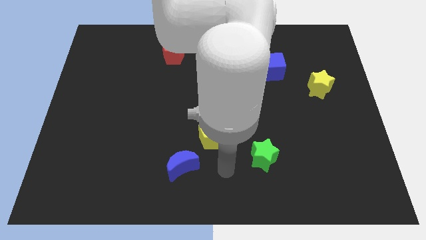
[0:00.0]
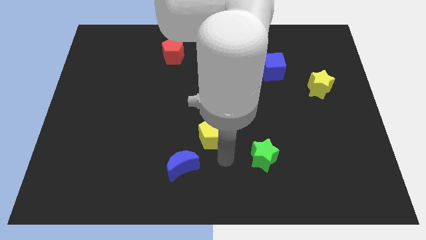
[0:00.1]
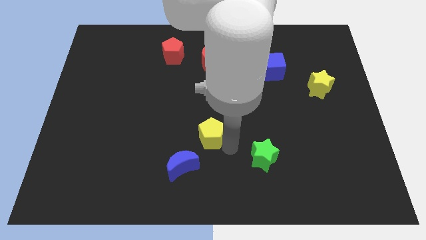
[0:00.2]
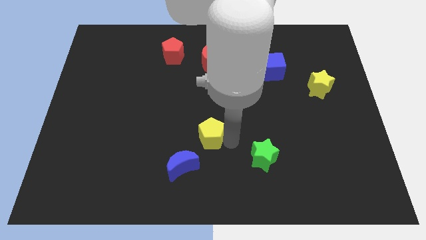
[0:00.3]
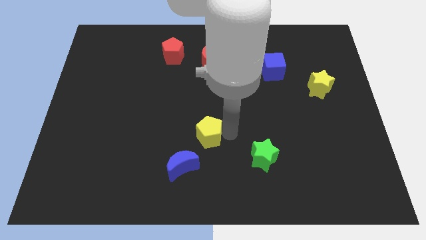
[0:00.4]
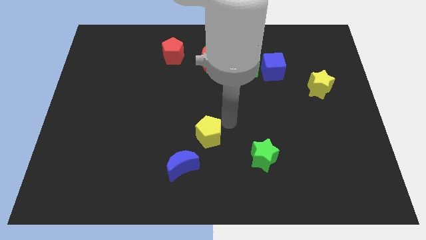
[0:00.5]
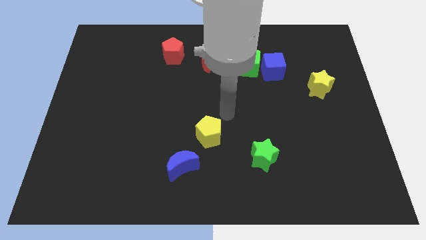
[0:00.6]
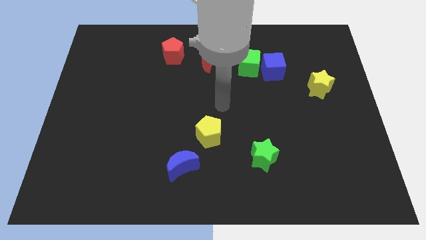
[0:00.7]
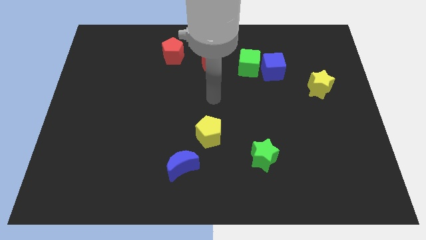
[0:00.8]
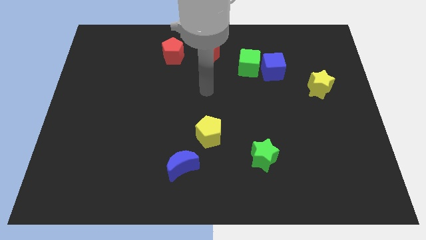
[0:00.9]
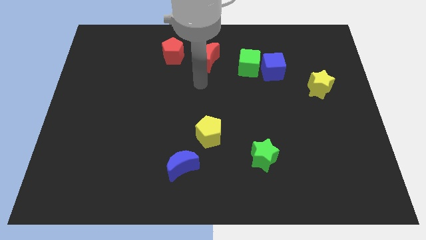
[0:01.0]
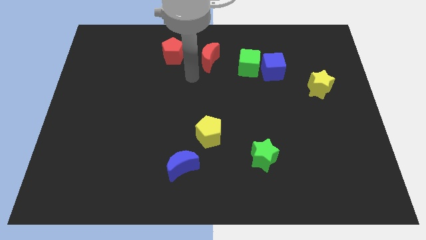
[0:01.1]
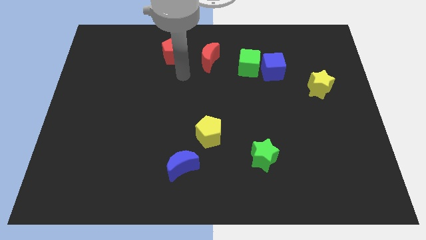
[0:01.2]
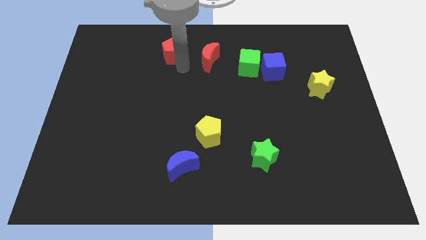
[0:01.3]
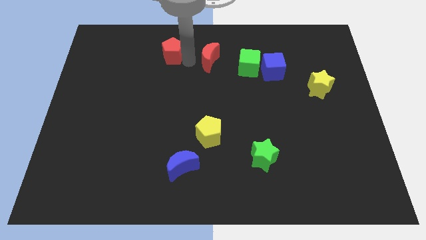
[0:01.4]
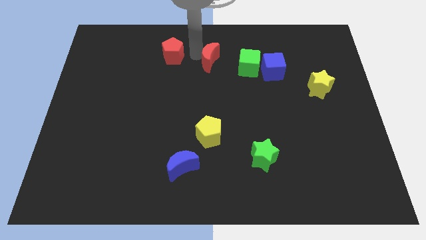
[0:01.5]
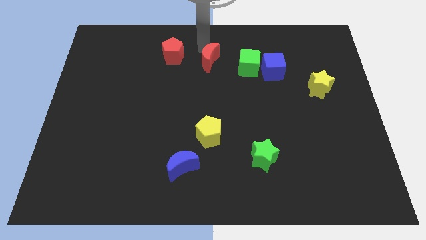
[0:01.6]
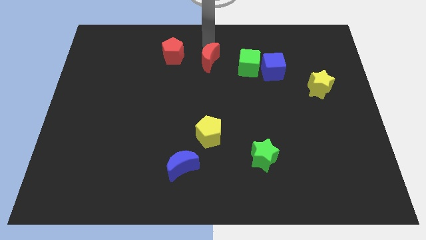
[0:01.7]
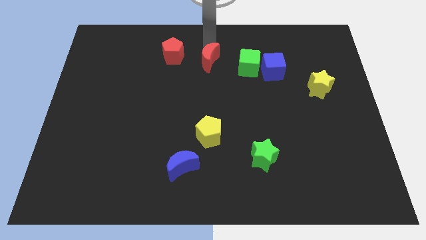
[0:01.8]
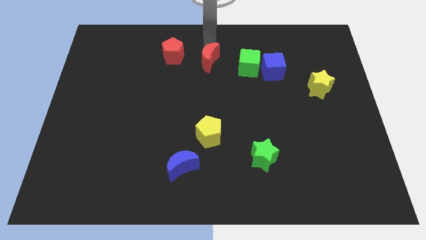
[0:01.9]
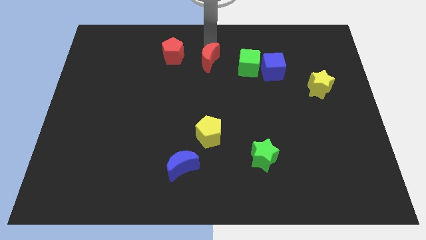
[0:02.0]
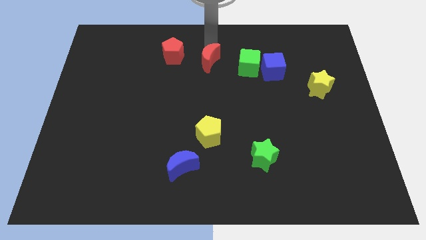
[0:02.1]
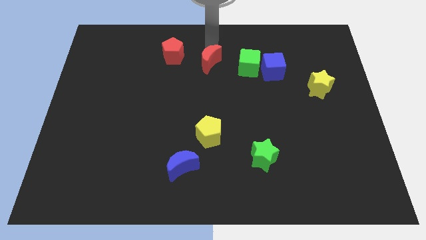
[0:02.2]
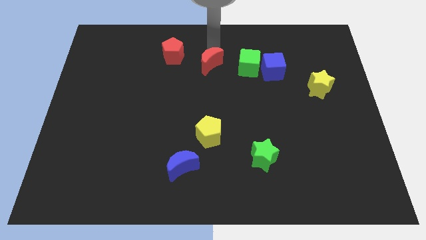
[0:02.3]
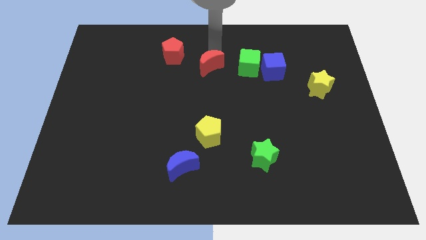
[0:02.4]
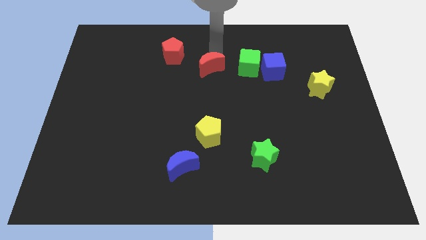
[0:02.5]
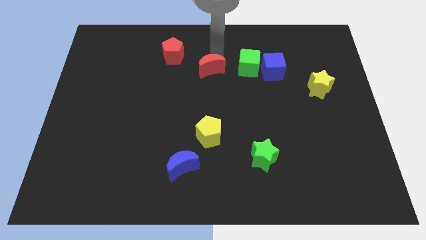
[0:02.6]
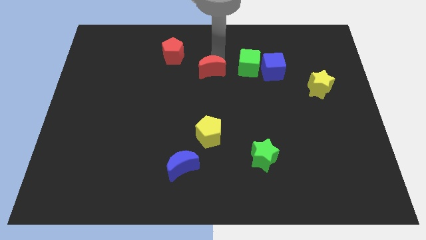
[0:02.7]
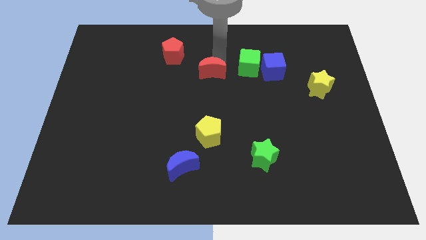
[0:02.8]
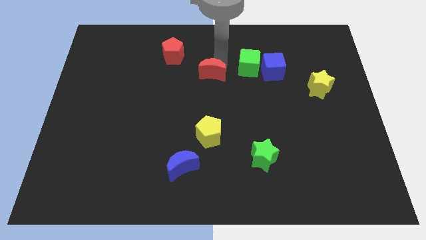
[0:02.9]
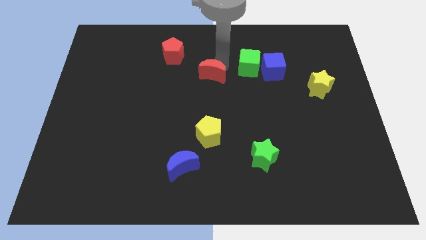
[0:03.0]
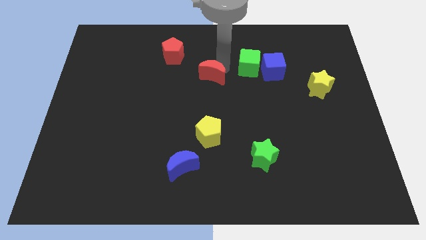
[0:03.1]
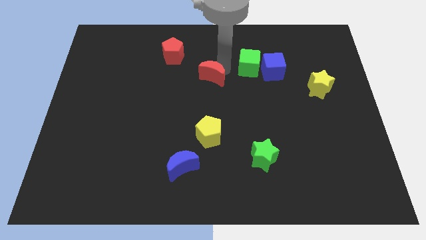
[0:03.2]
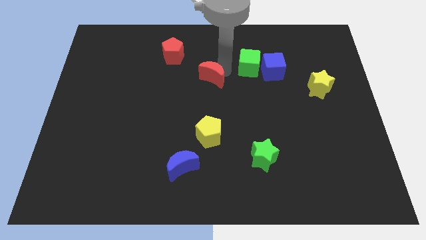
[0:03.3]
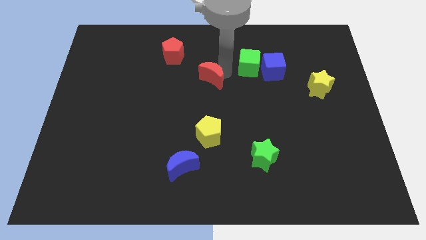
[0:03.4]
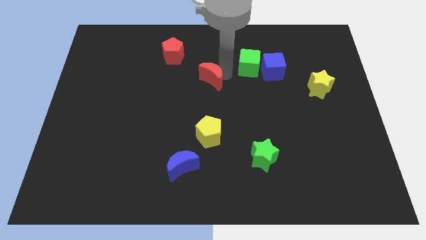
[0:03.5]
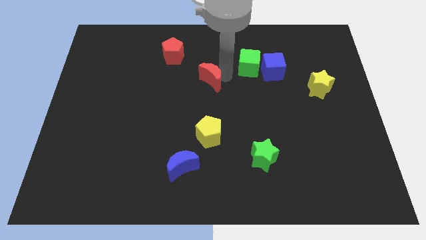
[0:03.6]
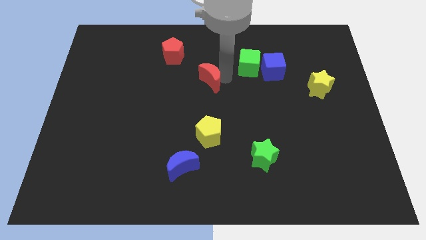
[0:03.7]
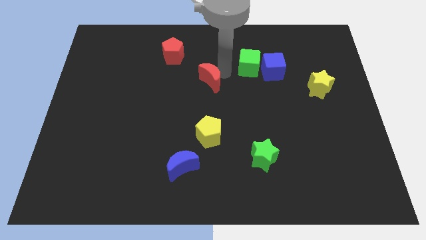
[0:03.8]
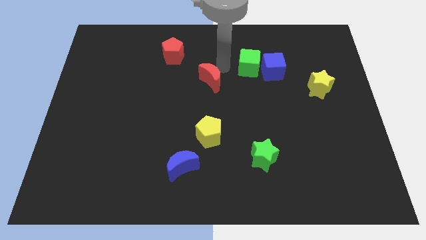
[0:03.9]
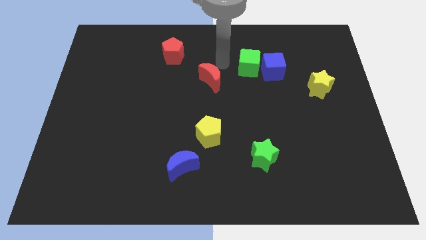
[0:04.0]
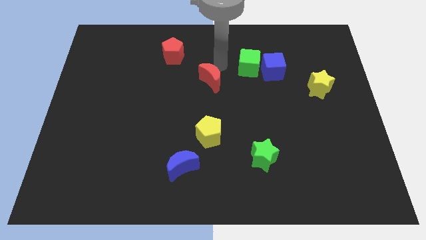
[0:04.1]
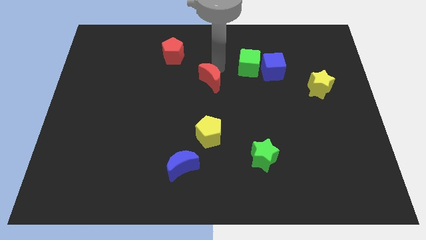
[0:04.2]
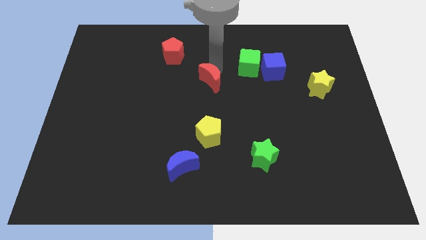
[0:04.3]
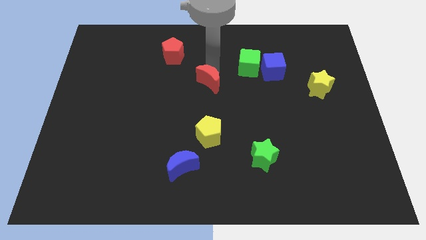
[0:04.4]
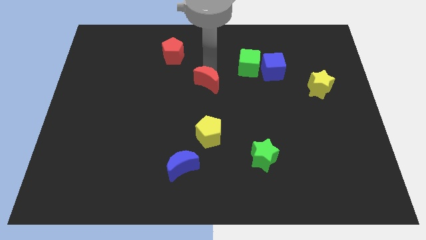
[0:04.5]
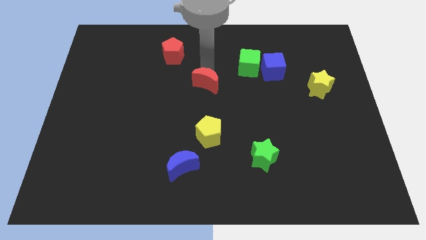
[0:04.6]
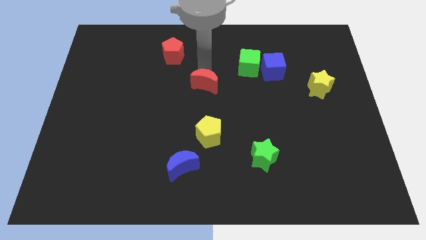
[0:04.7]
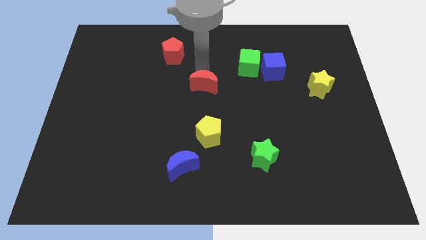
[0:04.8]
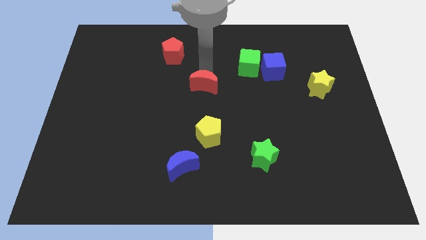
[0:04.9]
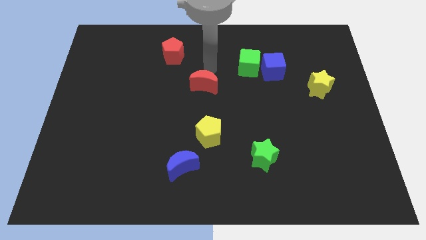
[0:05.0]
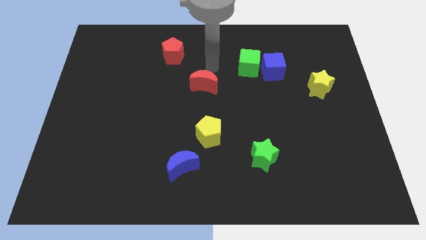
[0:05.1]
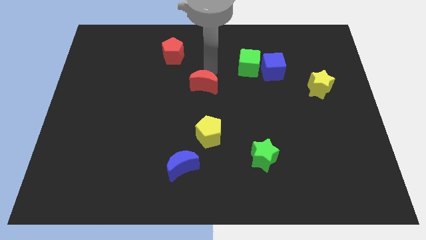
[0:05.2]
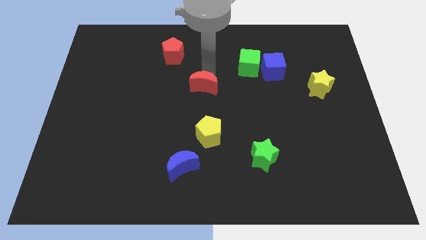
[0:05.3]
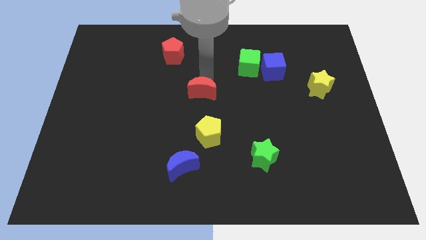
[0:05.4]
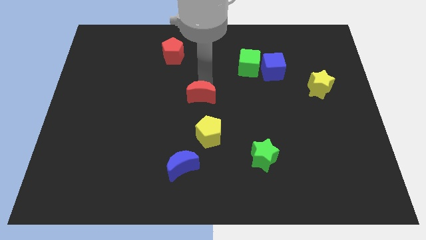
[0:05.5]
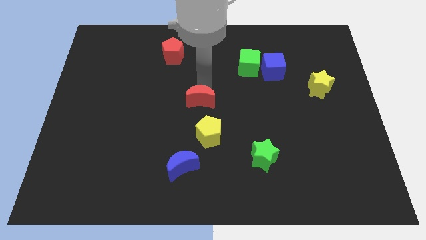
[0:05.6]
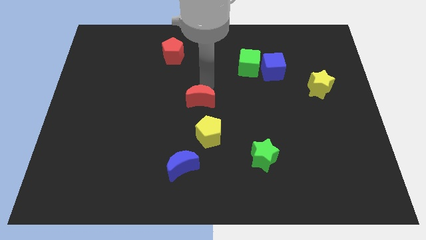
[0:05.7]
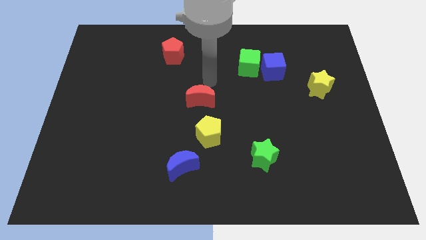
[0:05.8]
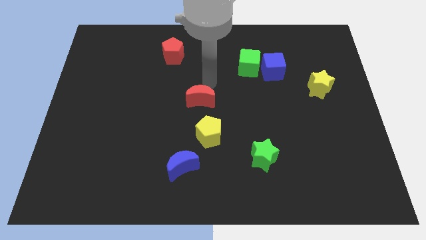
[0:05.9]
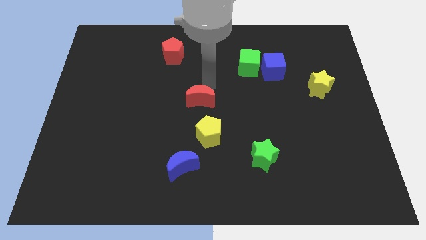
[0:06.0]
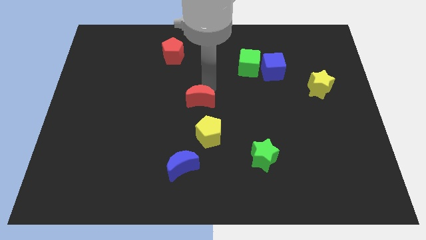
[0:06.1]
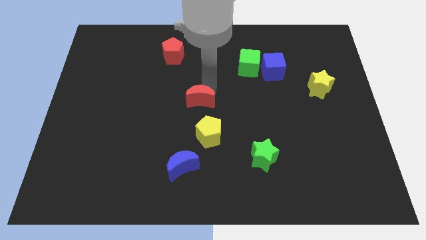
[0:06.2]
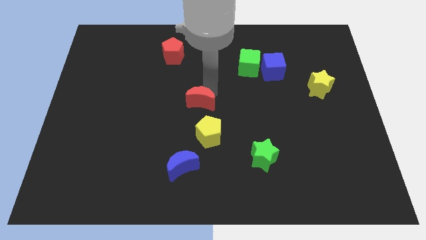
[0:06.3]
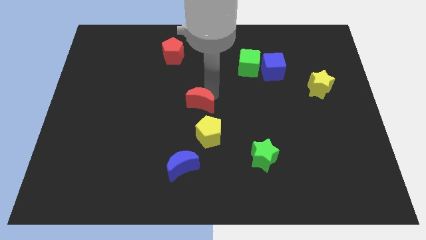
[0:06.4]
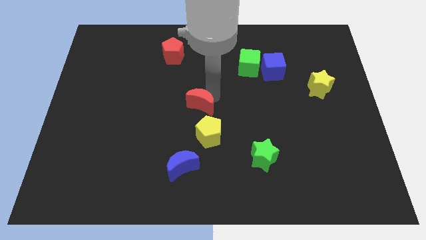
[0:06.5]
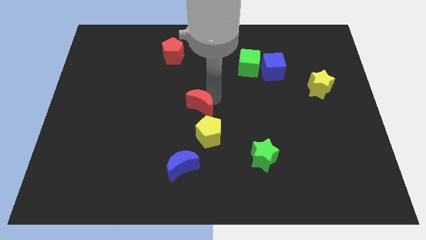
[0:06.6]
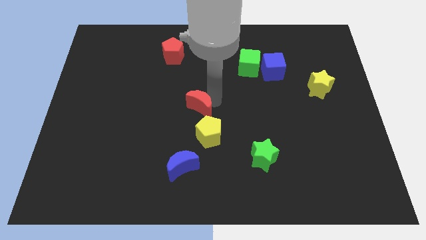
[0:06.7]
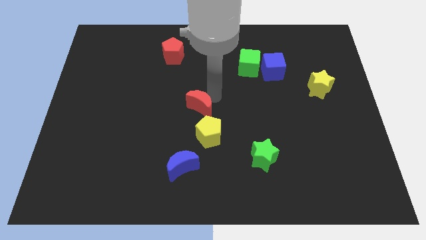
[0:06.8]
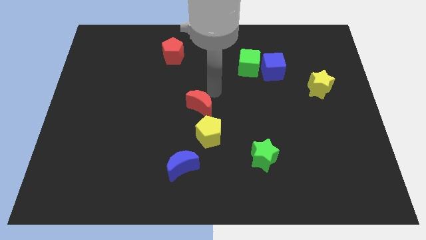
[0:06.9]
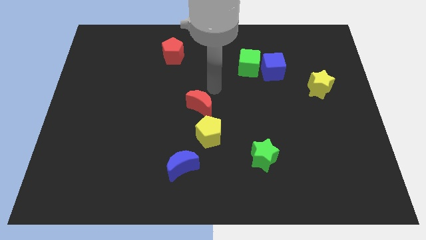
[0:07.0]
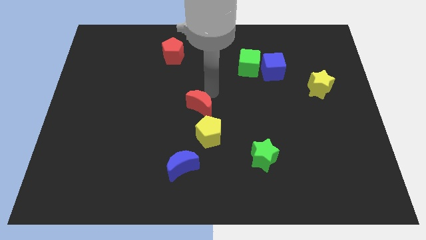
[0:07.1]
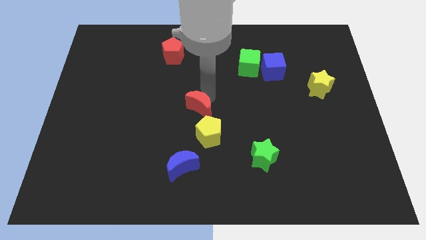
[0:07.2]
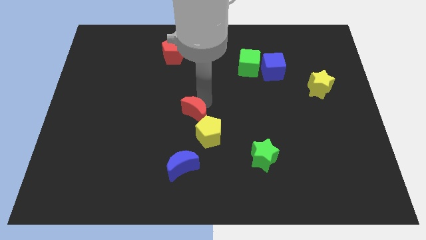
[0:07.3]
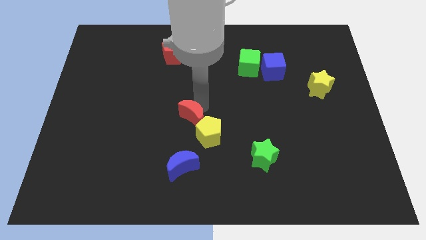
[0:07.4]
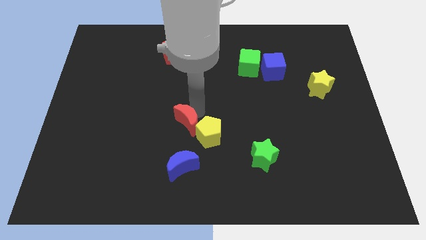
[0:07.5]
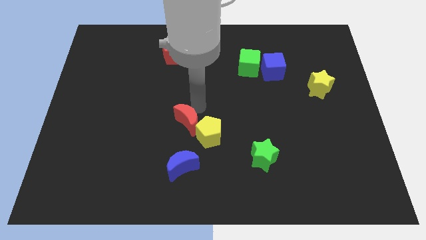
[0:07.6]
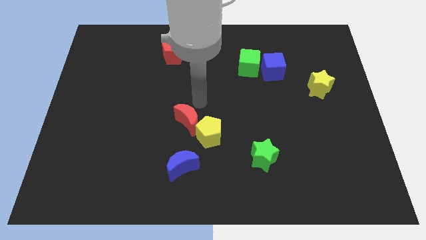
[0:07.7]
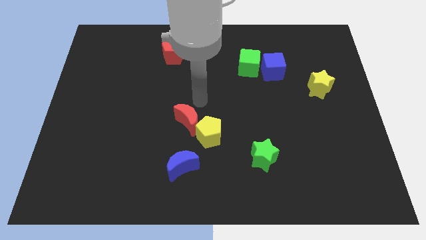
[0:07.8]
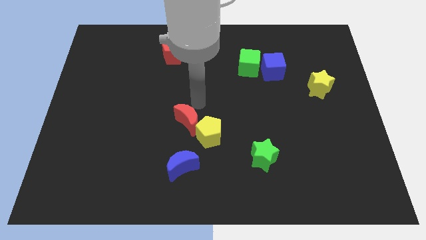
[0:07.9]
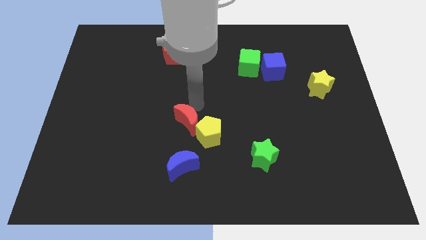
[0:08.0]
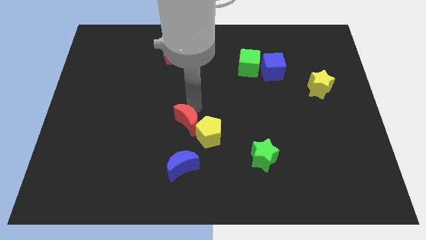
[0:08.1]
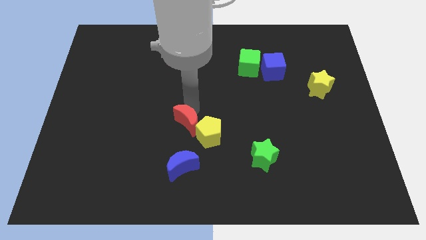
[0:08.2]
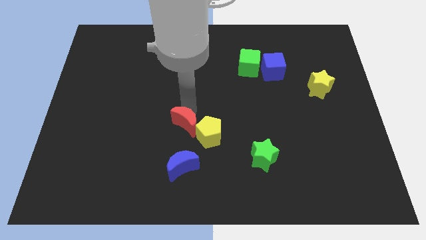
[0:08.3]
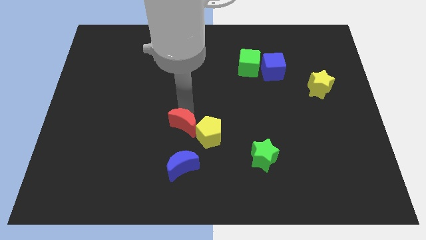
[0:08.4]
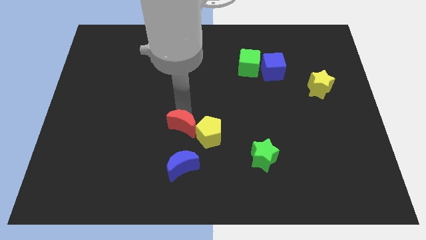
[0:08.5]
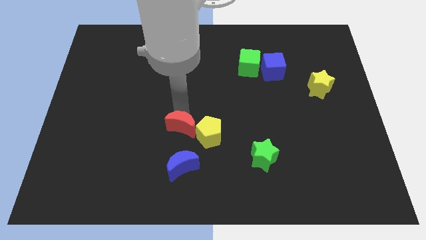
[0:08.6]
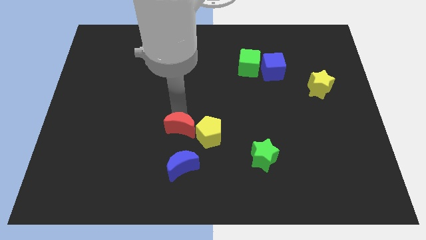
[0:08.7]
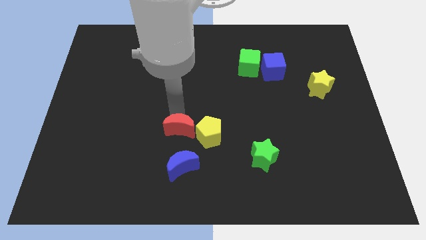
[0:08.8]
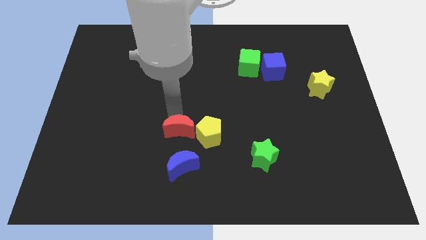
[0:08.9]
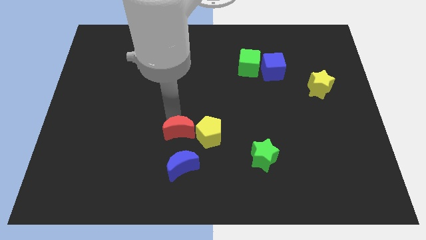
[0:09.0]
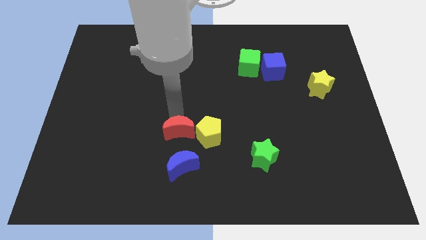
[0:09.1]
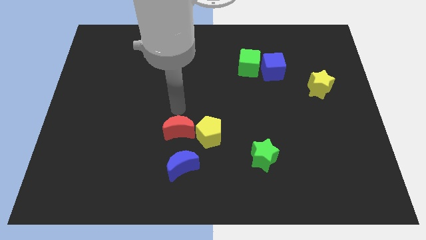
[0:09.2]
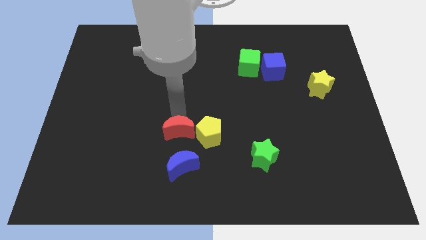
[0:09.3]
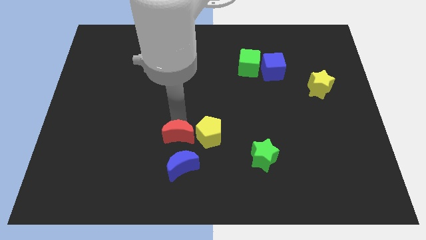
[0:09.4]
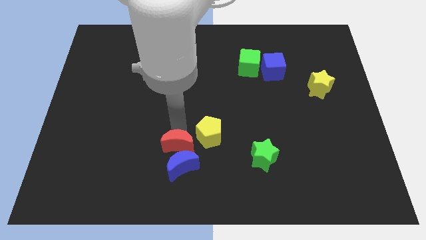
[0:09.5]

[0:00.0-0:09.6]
move the red moon close to the blue moon
